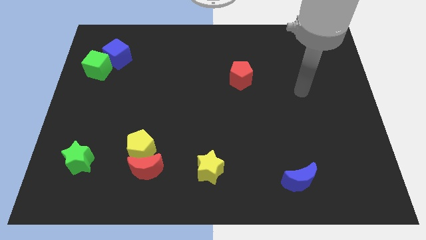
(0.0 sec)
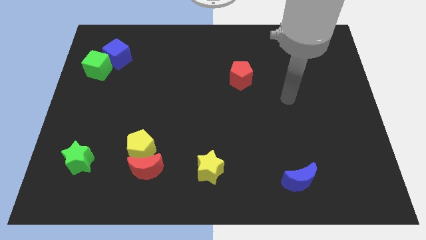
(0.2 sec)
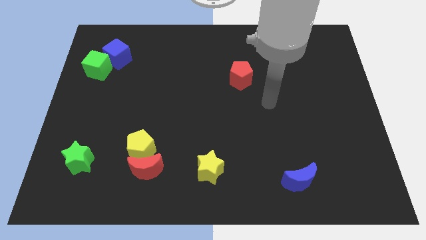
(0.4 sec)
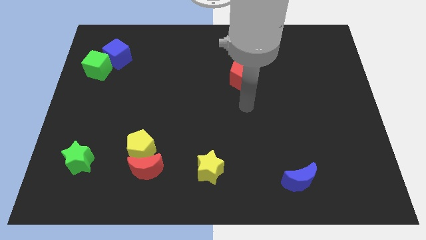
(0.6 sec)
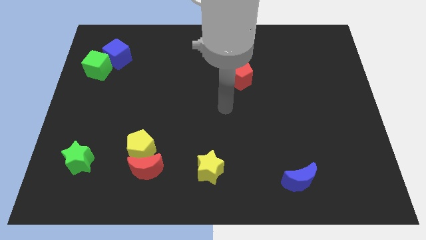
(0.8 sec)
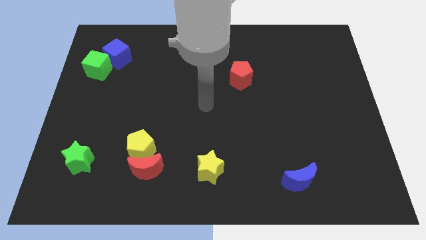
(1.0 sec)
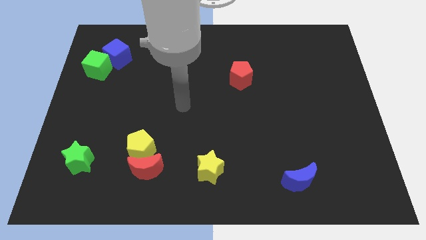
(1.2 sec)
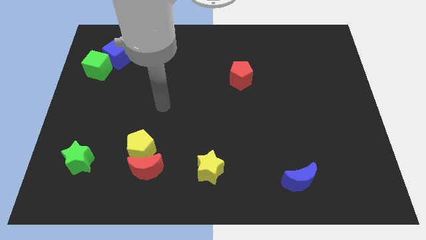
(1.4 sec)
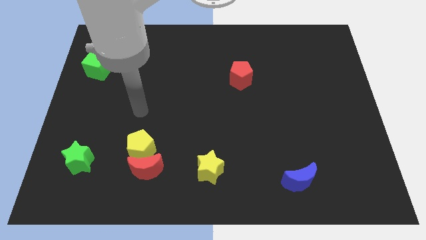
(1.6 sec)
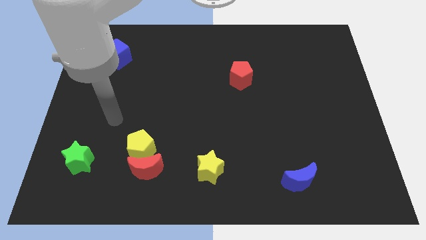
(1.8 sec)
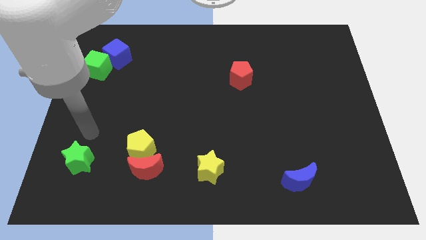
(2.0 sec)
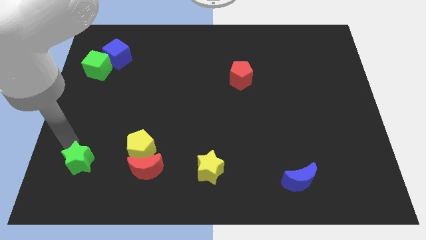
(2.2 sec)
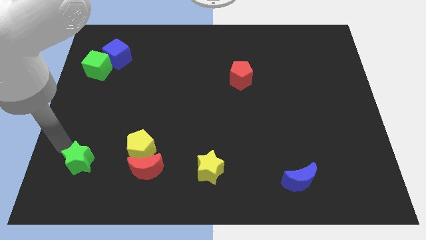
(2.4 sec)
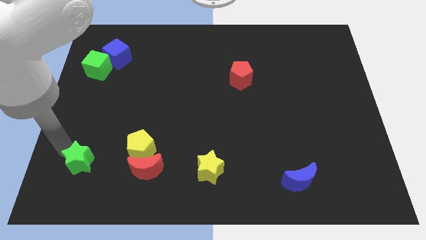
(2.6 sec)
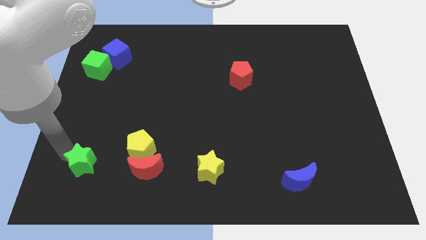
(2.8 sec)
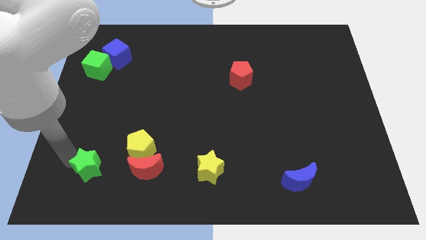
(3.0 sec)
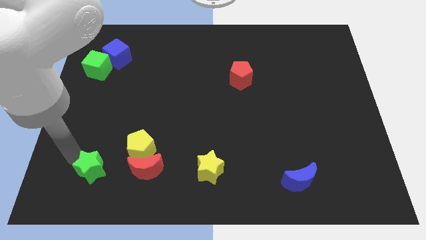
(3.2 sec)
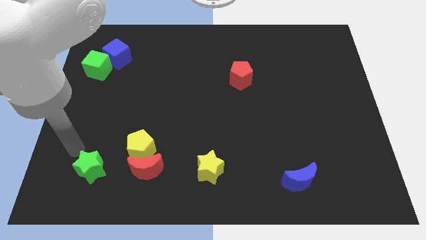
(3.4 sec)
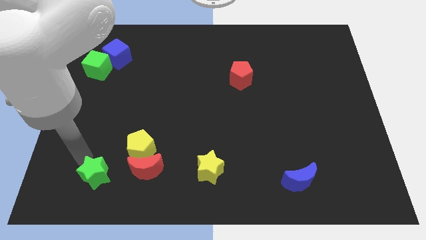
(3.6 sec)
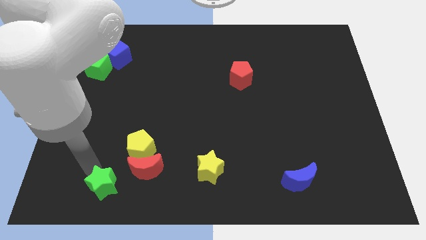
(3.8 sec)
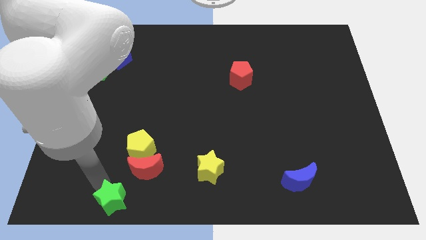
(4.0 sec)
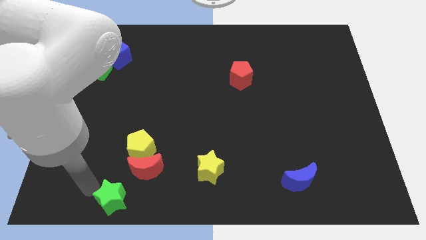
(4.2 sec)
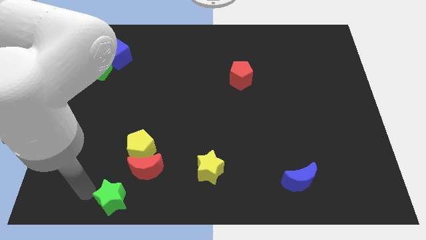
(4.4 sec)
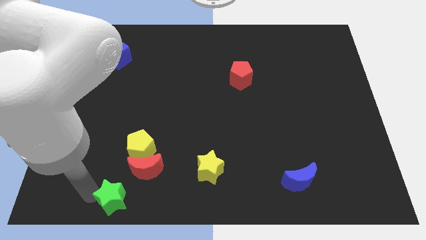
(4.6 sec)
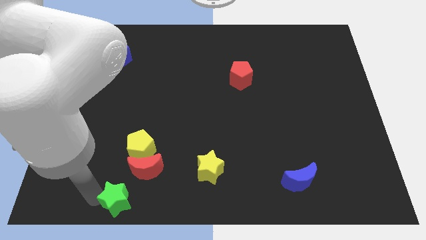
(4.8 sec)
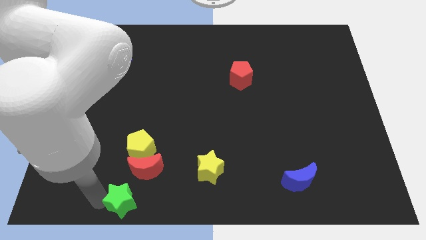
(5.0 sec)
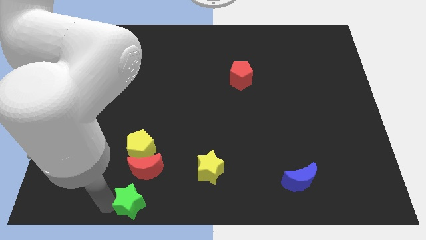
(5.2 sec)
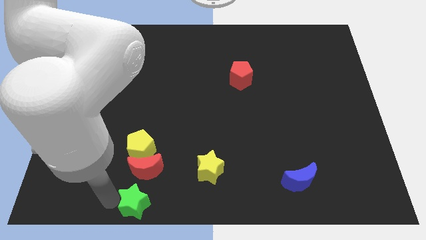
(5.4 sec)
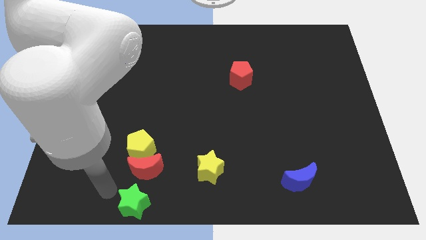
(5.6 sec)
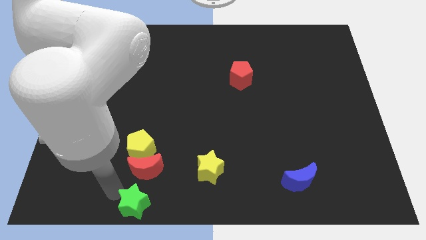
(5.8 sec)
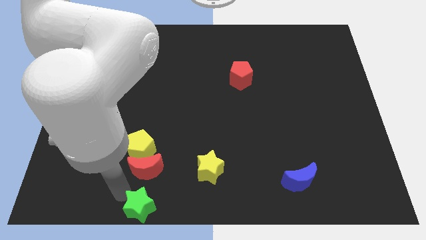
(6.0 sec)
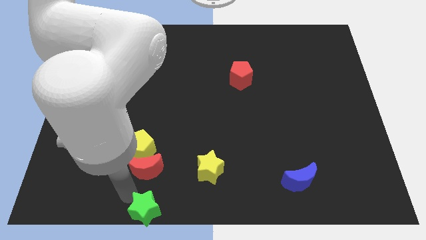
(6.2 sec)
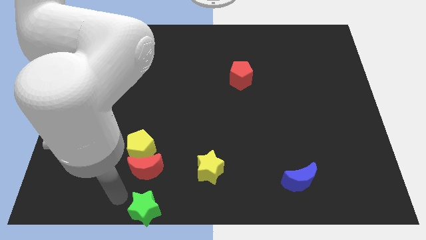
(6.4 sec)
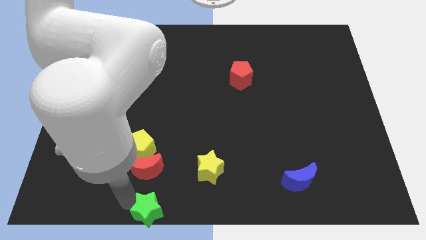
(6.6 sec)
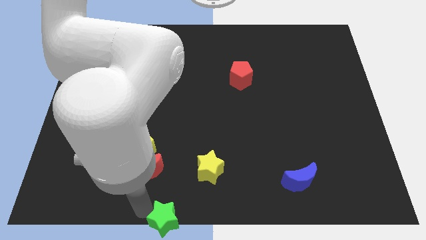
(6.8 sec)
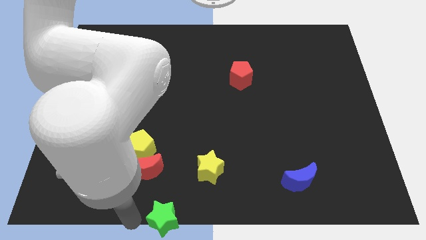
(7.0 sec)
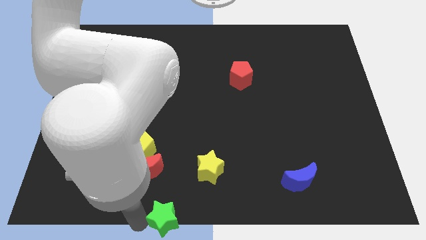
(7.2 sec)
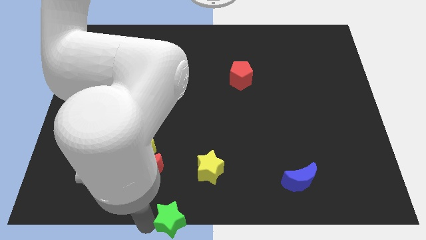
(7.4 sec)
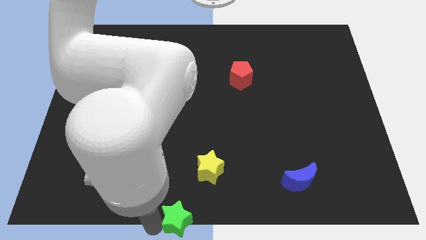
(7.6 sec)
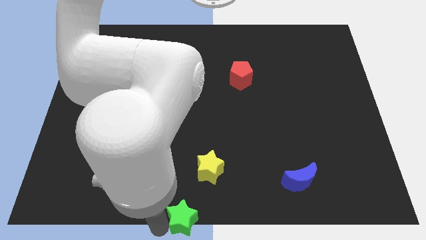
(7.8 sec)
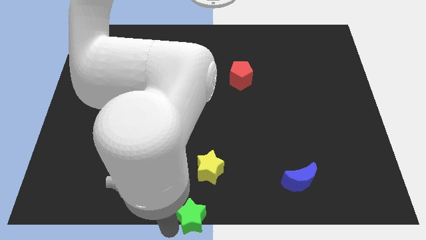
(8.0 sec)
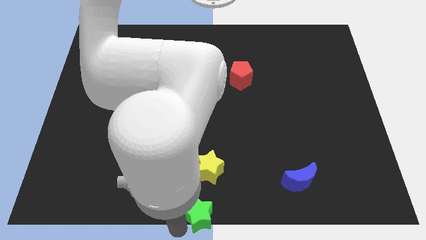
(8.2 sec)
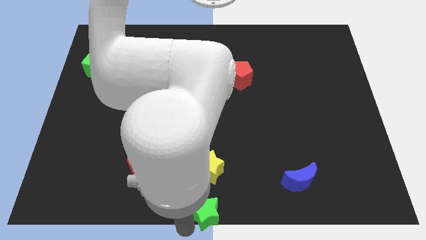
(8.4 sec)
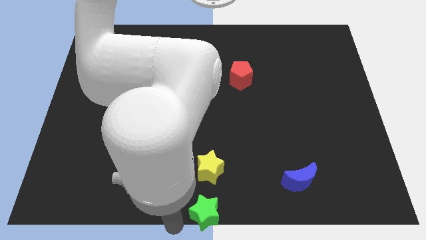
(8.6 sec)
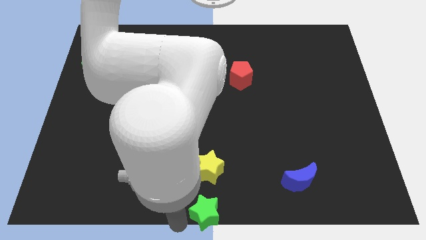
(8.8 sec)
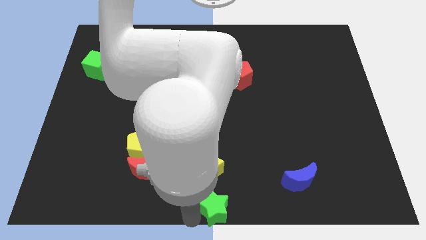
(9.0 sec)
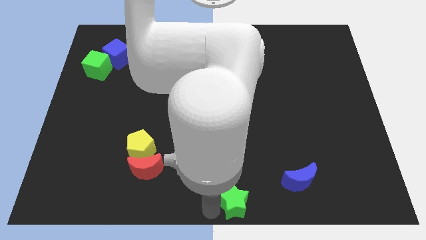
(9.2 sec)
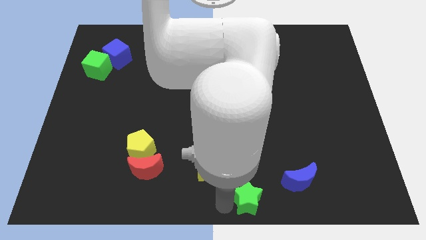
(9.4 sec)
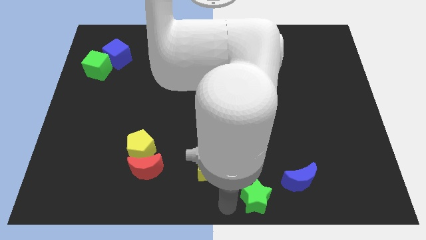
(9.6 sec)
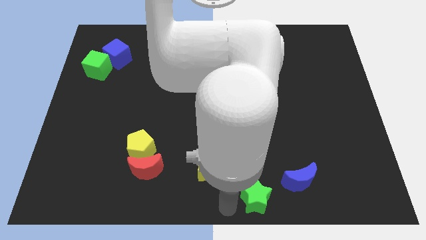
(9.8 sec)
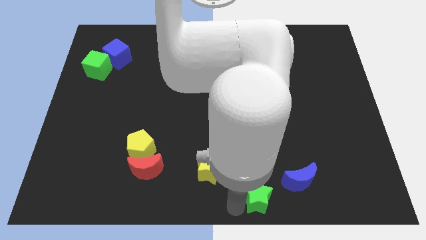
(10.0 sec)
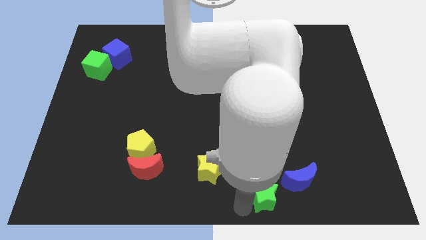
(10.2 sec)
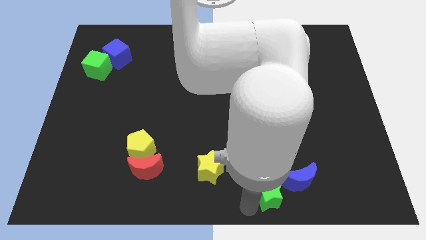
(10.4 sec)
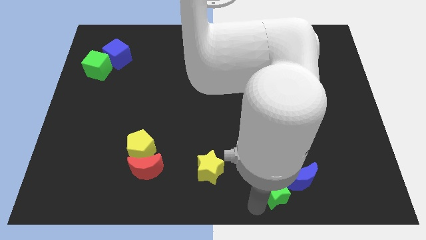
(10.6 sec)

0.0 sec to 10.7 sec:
slide the green star next to the blue moon

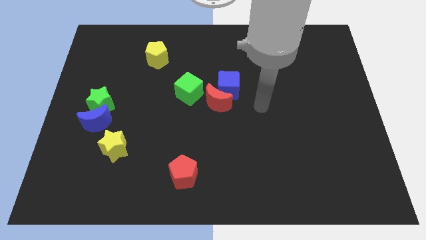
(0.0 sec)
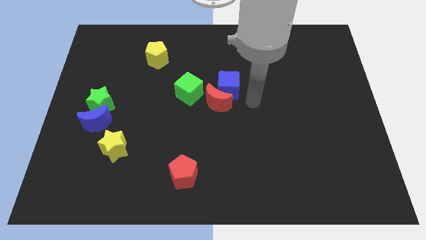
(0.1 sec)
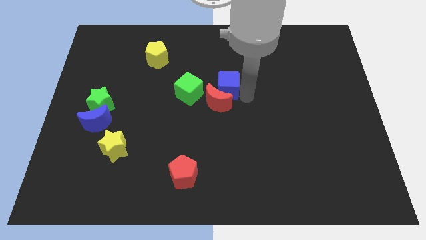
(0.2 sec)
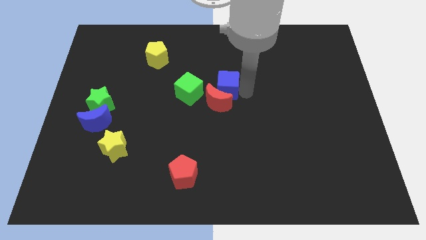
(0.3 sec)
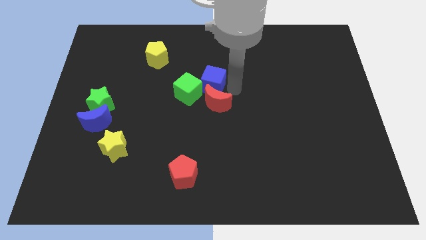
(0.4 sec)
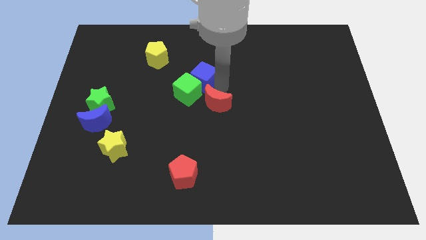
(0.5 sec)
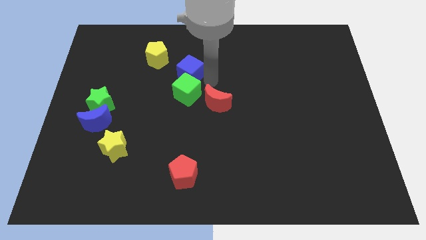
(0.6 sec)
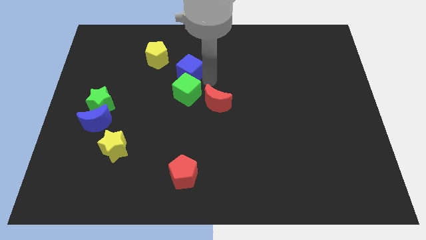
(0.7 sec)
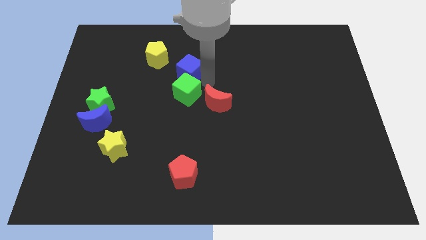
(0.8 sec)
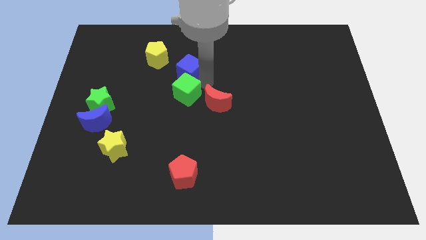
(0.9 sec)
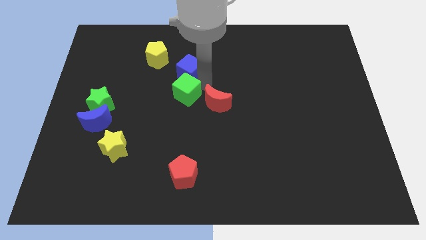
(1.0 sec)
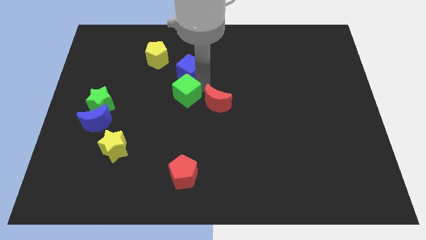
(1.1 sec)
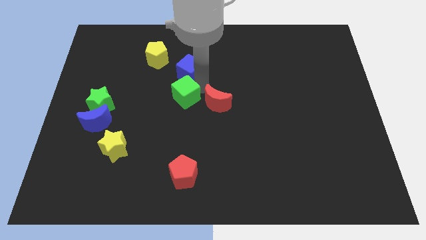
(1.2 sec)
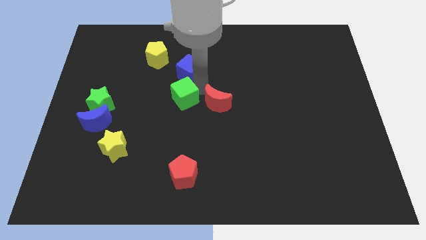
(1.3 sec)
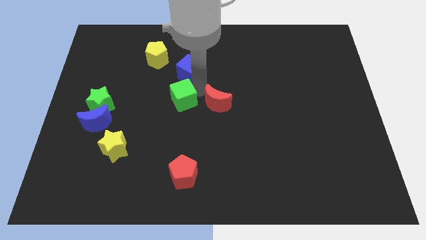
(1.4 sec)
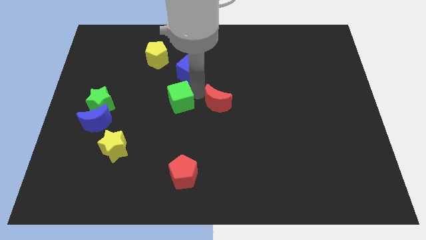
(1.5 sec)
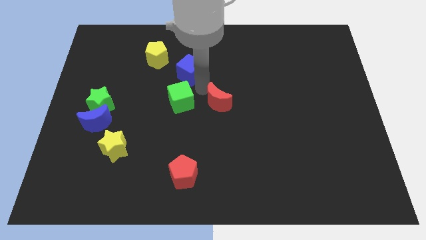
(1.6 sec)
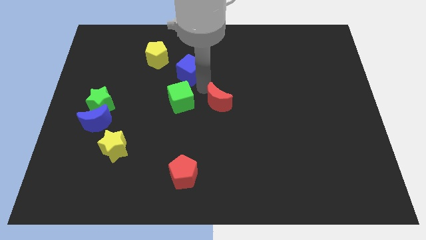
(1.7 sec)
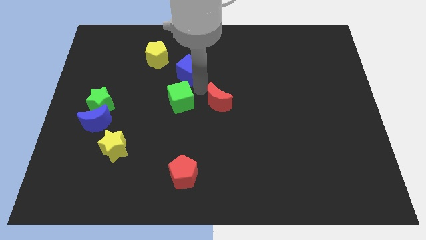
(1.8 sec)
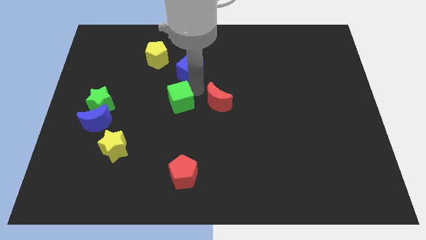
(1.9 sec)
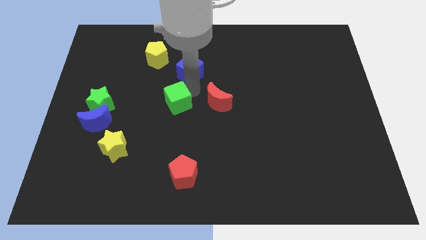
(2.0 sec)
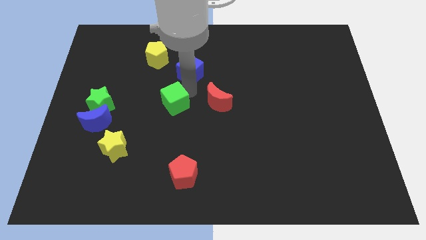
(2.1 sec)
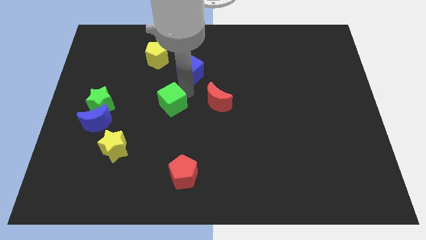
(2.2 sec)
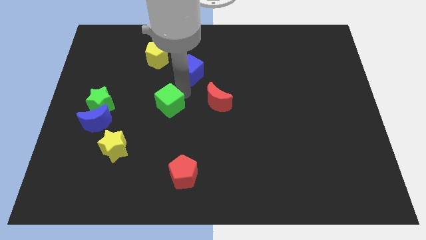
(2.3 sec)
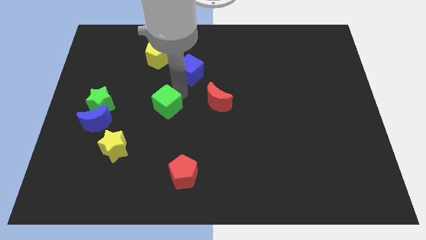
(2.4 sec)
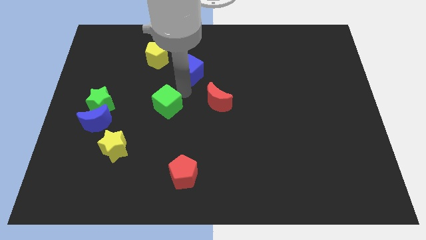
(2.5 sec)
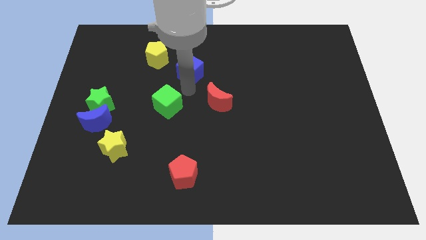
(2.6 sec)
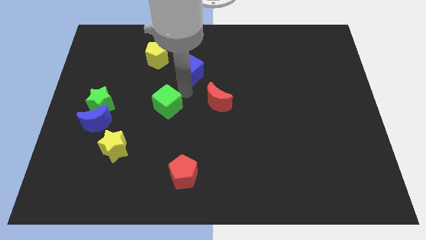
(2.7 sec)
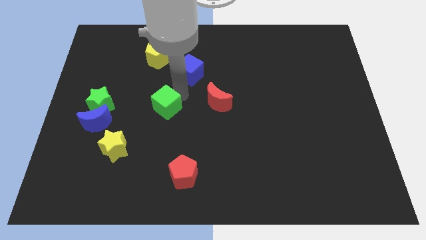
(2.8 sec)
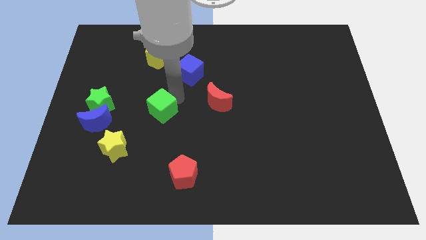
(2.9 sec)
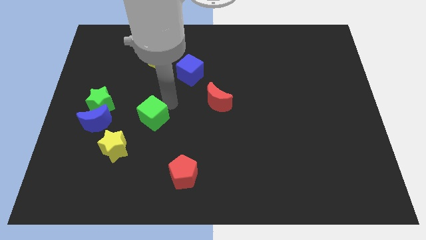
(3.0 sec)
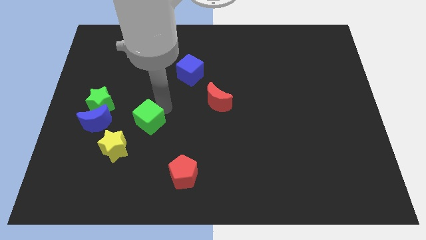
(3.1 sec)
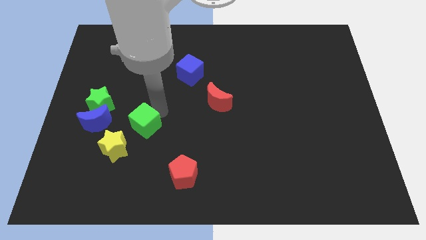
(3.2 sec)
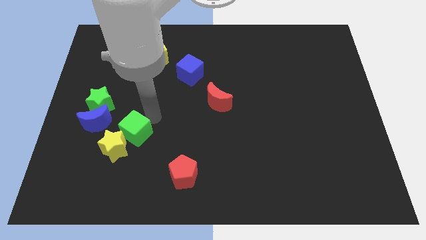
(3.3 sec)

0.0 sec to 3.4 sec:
slide the green cube to the yellow star
